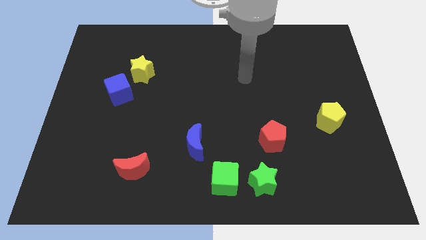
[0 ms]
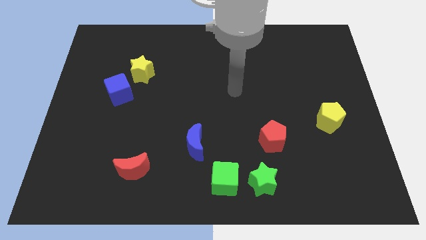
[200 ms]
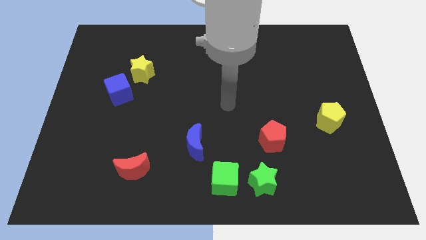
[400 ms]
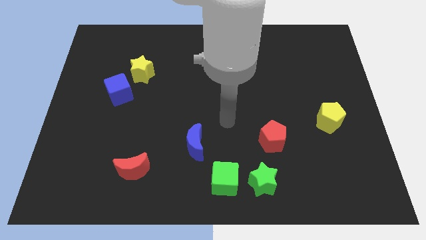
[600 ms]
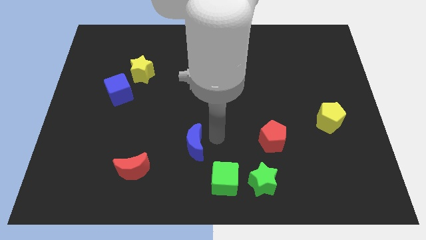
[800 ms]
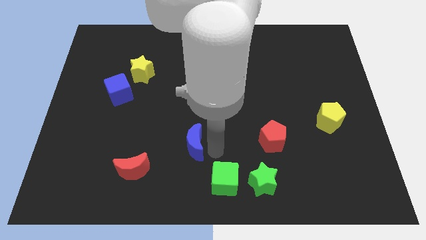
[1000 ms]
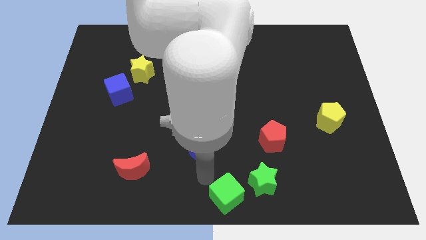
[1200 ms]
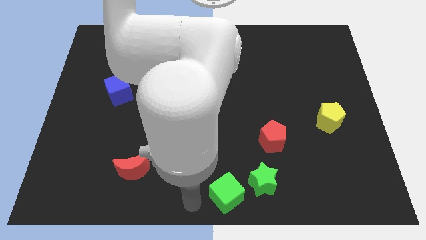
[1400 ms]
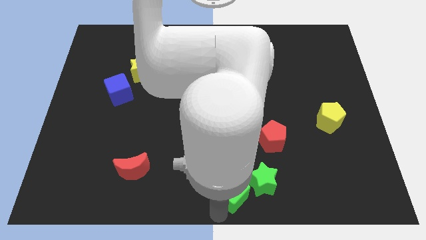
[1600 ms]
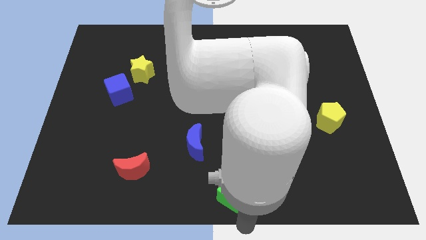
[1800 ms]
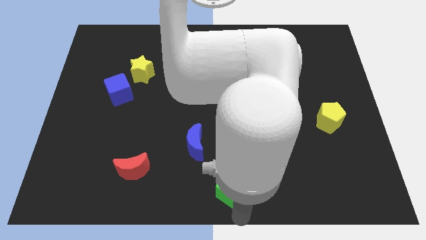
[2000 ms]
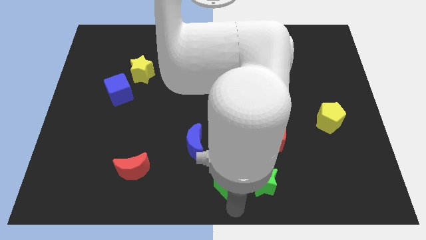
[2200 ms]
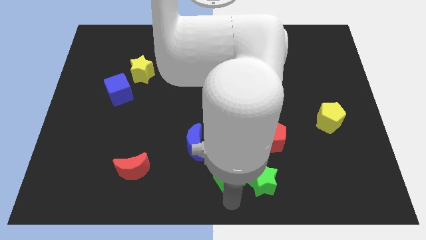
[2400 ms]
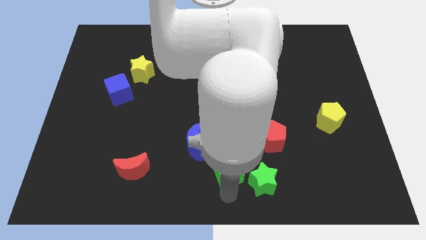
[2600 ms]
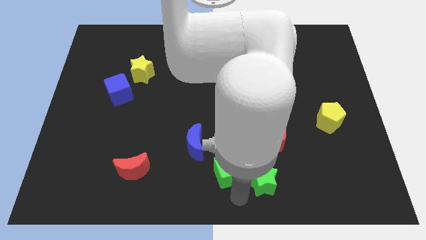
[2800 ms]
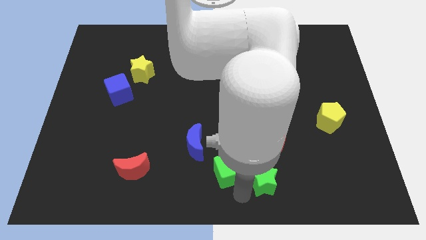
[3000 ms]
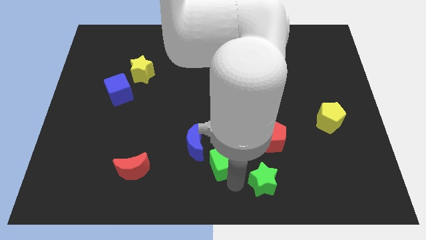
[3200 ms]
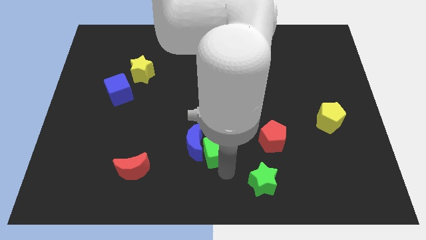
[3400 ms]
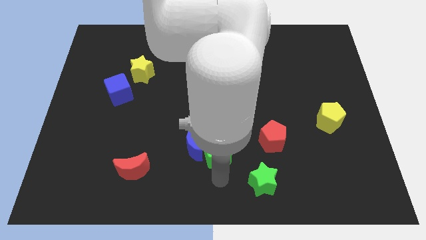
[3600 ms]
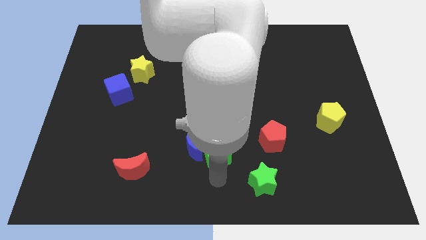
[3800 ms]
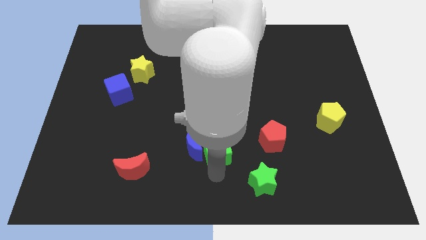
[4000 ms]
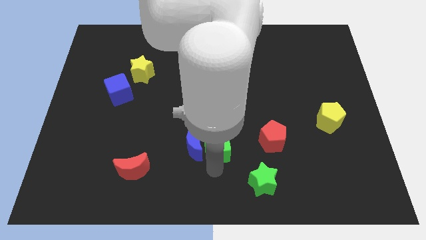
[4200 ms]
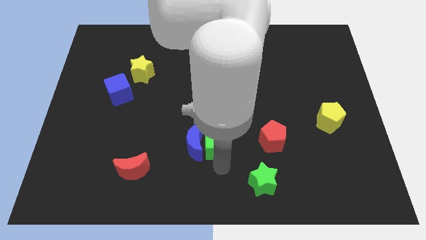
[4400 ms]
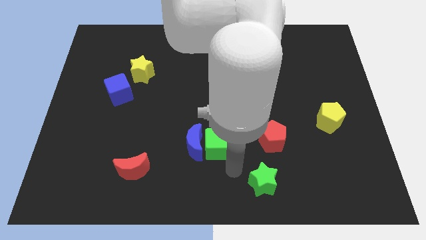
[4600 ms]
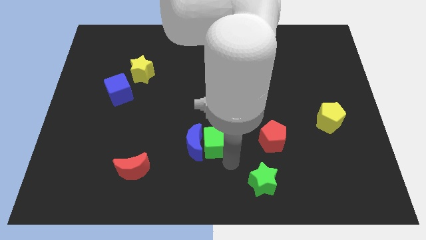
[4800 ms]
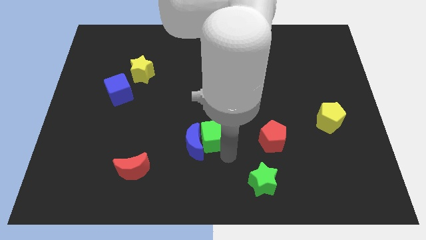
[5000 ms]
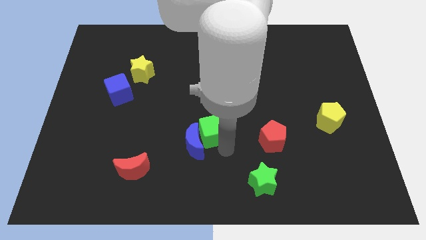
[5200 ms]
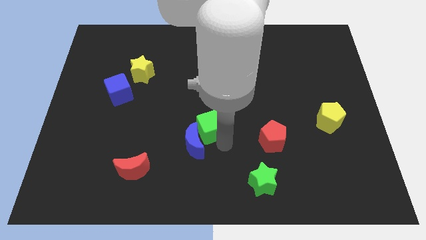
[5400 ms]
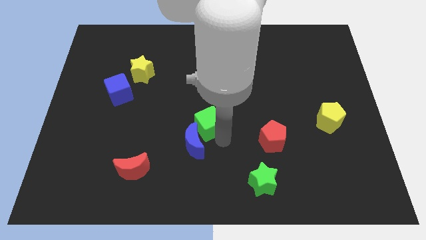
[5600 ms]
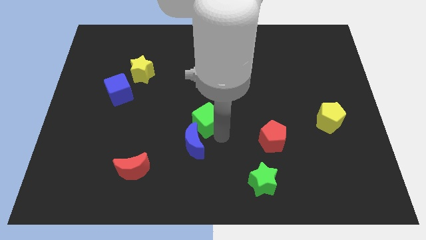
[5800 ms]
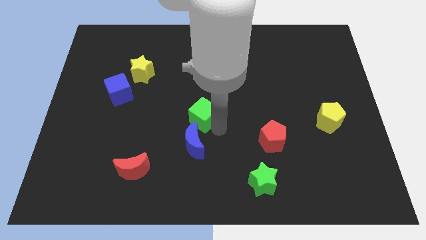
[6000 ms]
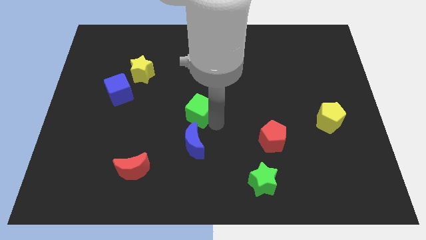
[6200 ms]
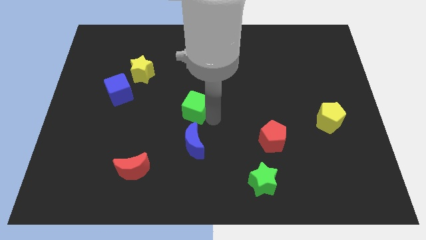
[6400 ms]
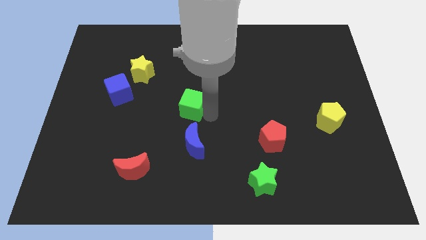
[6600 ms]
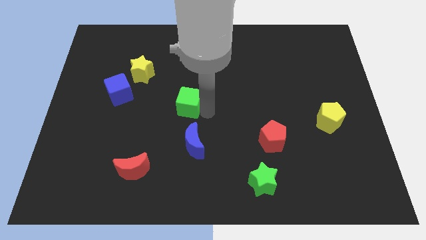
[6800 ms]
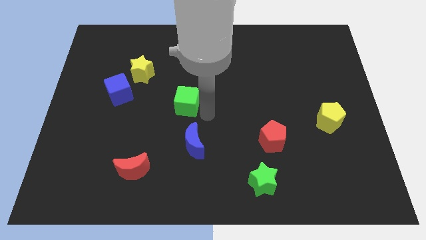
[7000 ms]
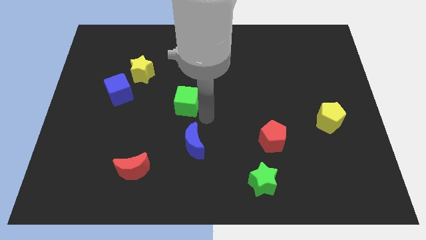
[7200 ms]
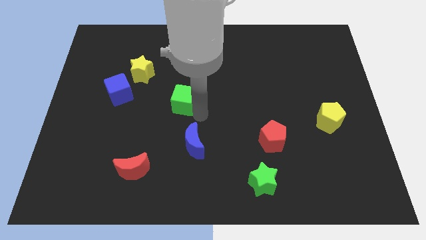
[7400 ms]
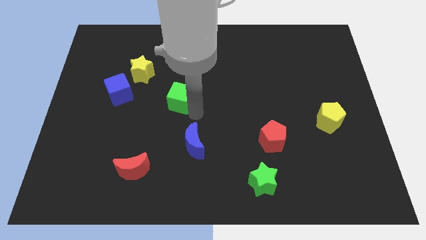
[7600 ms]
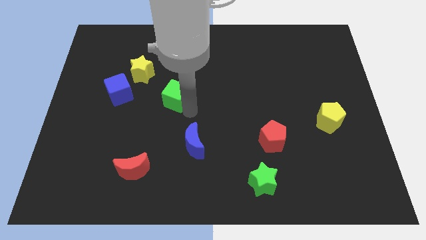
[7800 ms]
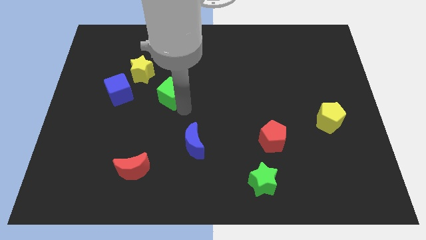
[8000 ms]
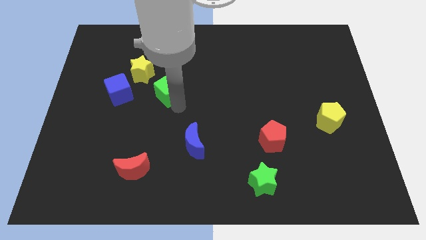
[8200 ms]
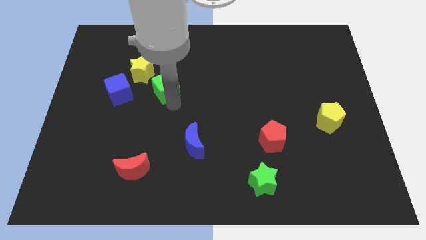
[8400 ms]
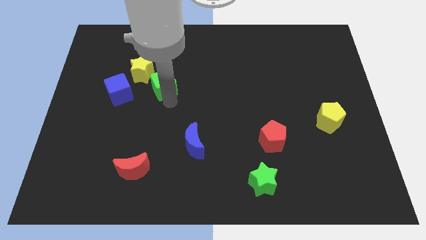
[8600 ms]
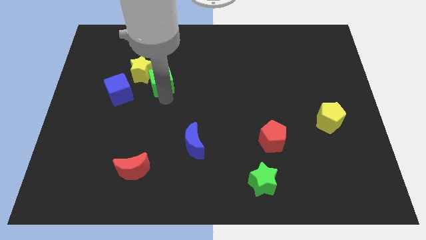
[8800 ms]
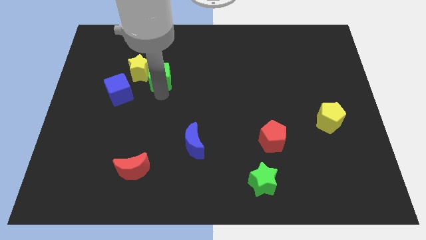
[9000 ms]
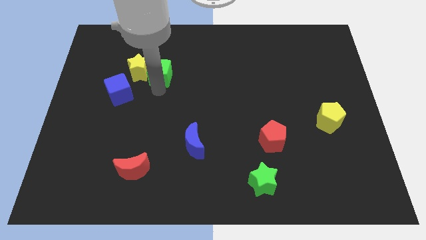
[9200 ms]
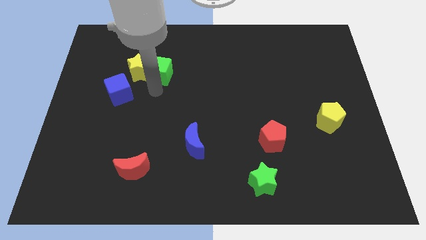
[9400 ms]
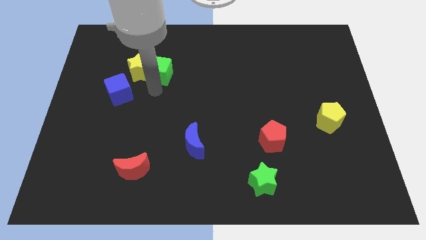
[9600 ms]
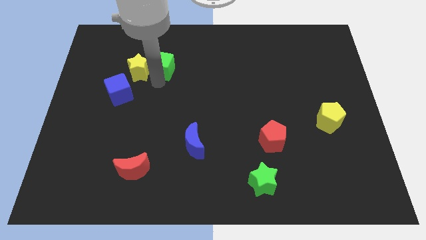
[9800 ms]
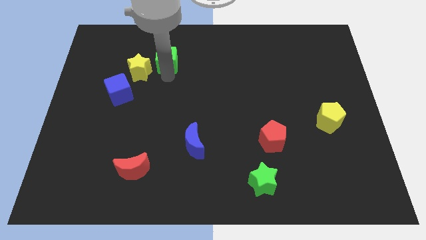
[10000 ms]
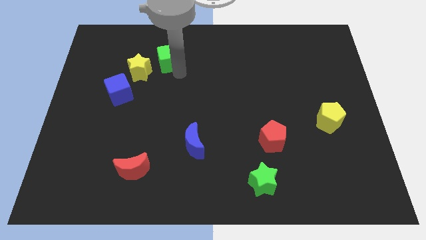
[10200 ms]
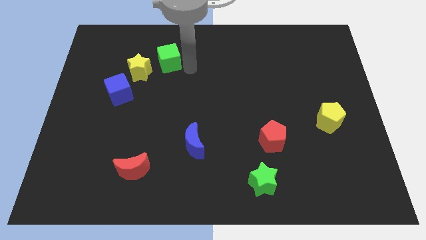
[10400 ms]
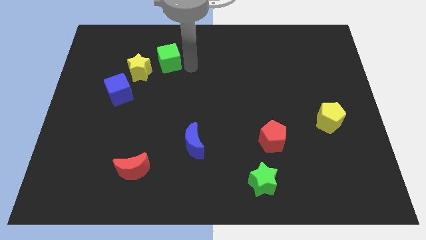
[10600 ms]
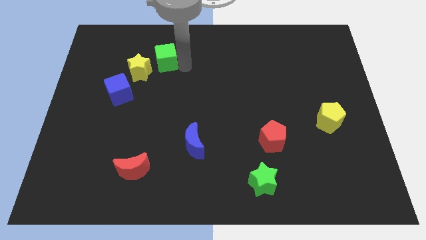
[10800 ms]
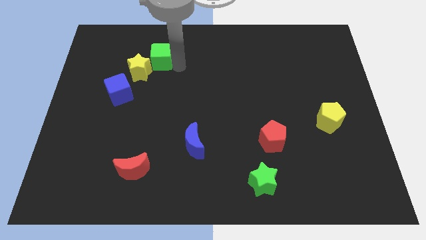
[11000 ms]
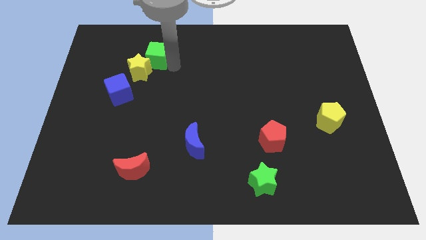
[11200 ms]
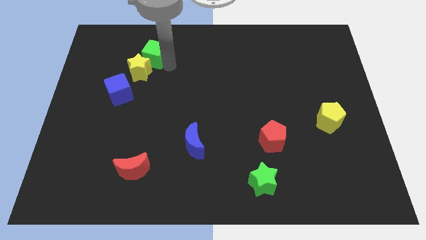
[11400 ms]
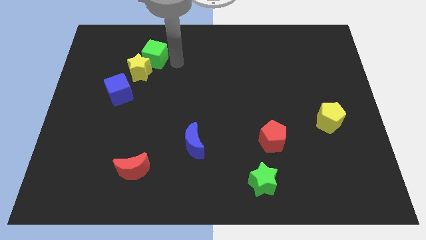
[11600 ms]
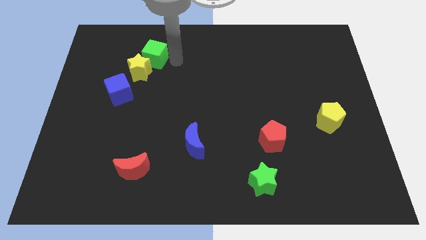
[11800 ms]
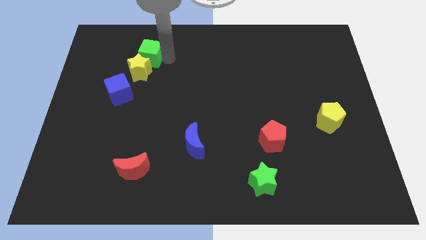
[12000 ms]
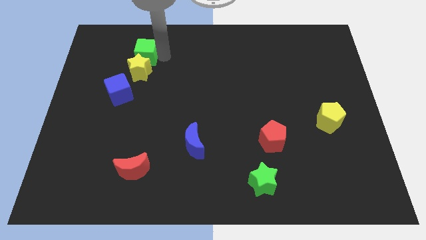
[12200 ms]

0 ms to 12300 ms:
push the green cube diagonally up and to the left of the yellow star
